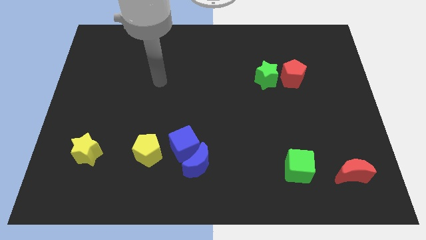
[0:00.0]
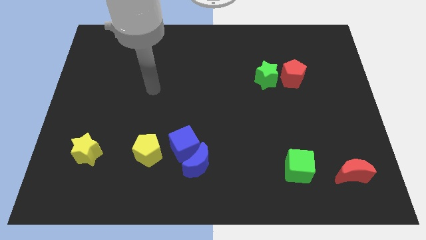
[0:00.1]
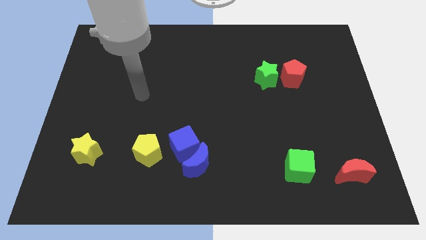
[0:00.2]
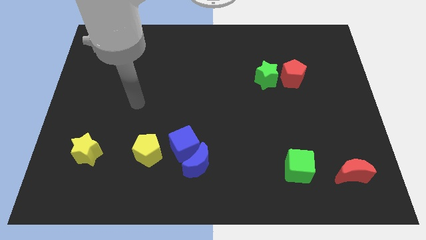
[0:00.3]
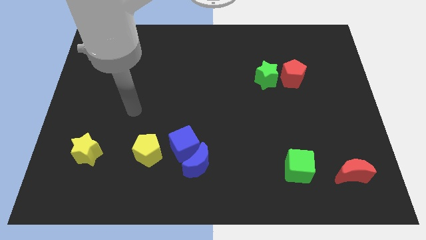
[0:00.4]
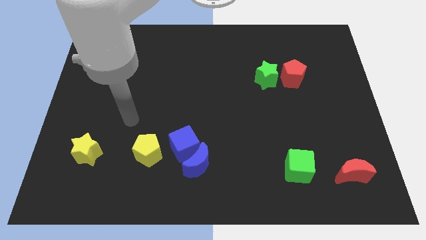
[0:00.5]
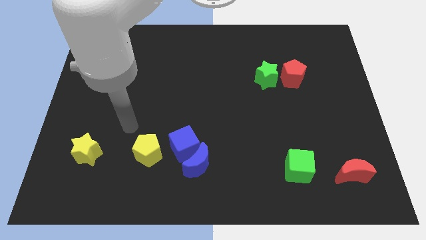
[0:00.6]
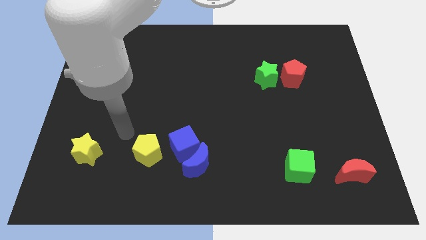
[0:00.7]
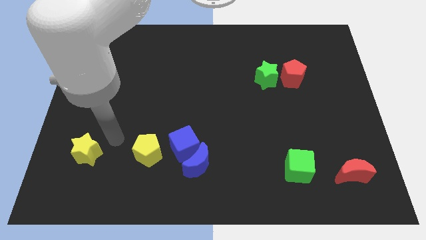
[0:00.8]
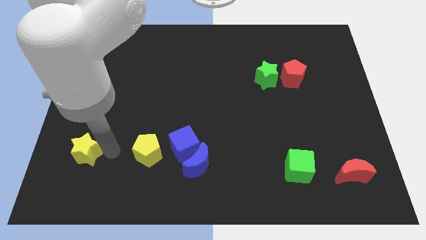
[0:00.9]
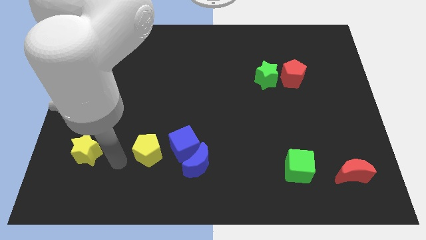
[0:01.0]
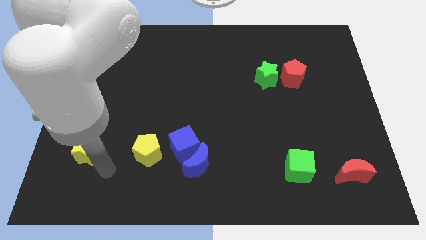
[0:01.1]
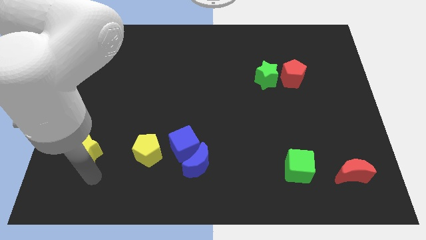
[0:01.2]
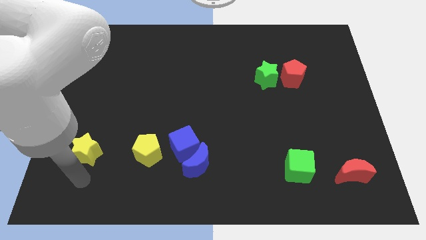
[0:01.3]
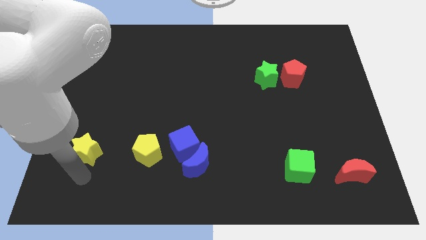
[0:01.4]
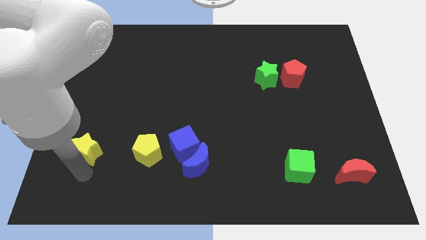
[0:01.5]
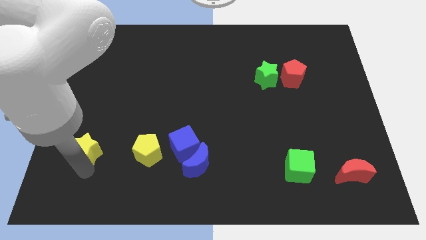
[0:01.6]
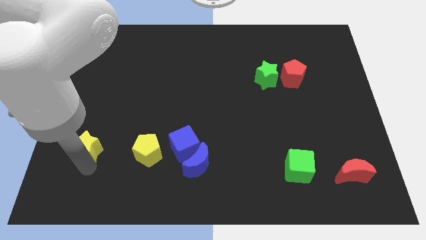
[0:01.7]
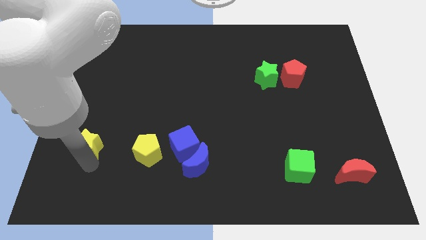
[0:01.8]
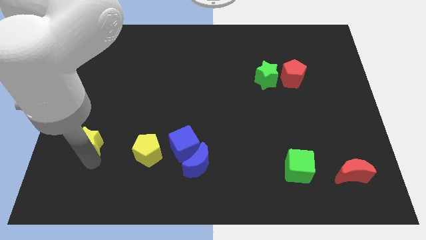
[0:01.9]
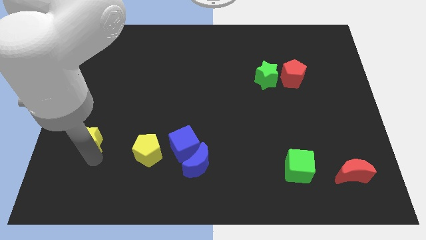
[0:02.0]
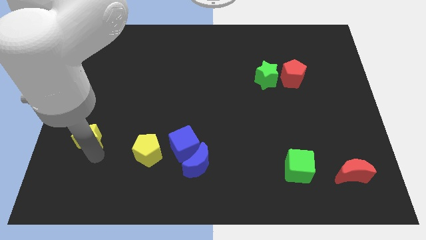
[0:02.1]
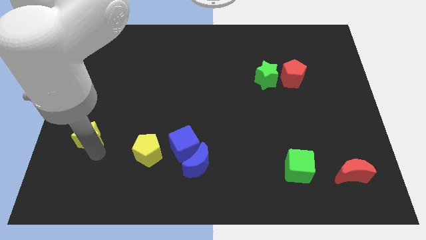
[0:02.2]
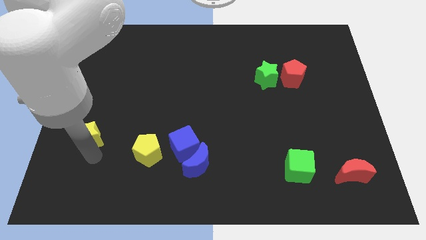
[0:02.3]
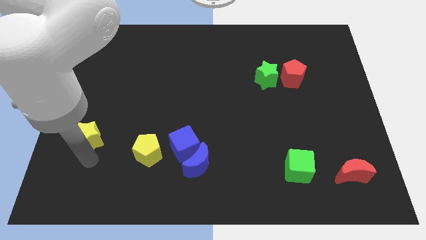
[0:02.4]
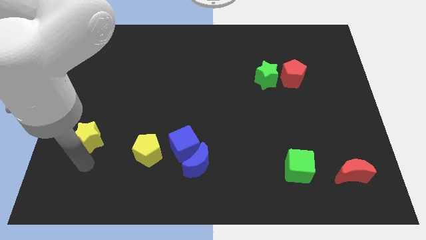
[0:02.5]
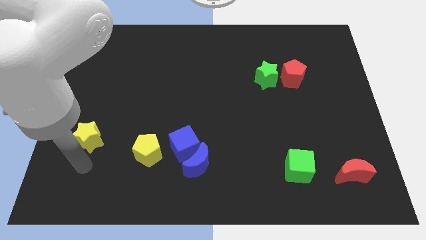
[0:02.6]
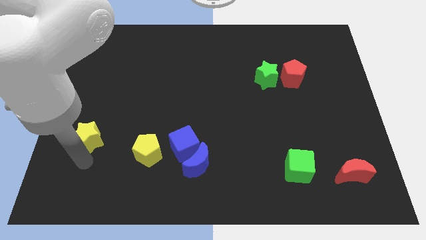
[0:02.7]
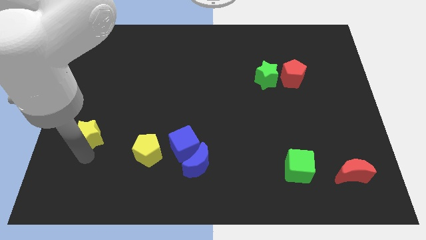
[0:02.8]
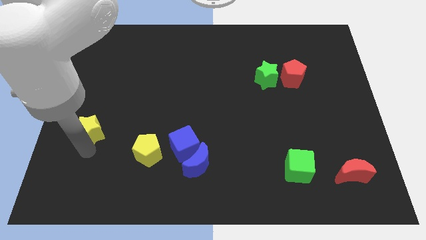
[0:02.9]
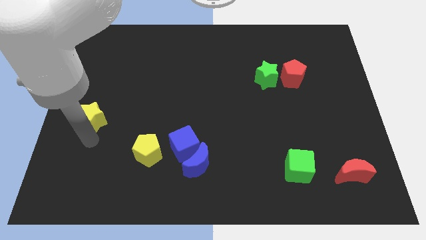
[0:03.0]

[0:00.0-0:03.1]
move the yellow star a little bit up

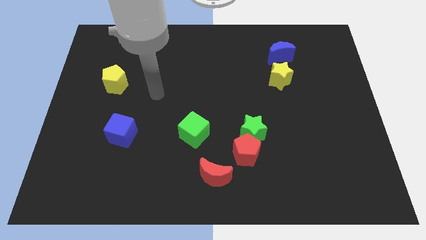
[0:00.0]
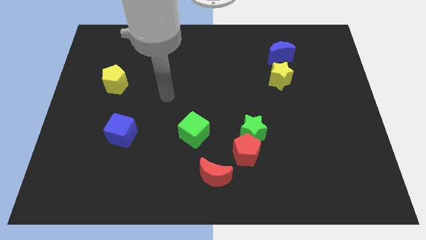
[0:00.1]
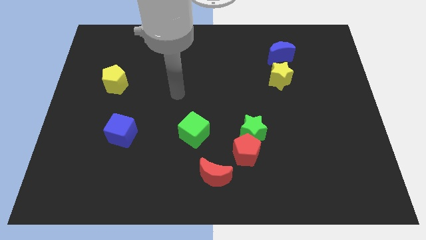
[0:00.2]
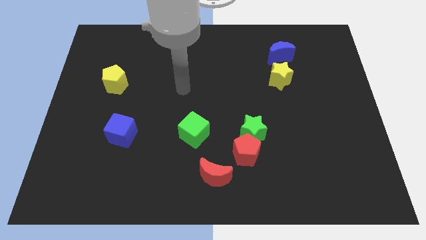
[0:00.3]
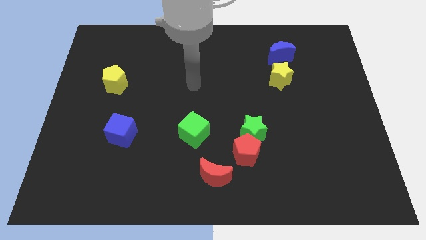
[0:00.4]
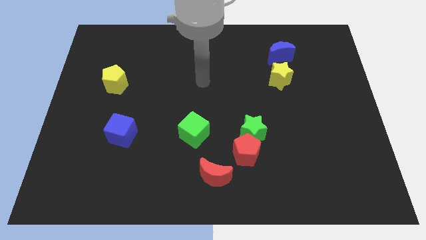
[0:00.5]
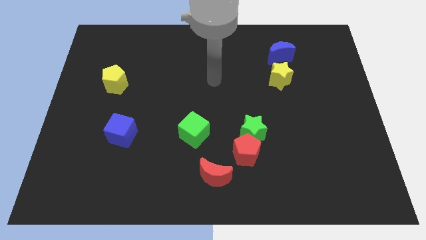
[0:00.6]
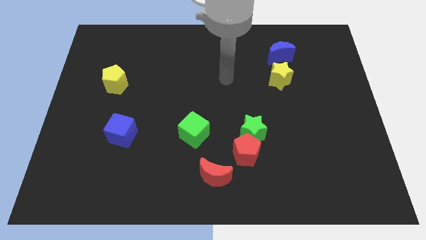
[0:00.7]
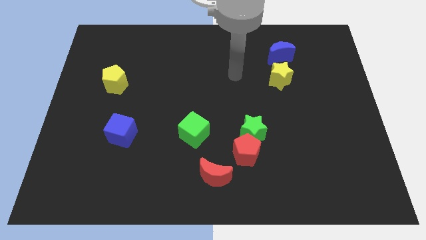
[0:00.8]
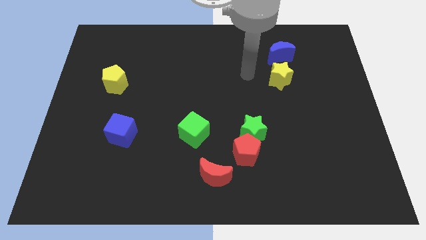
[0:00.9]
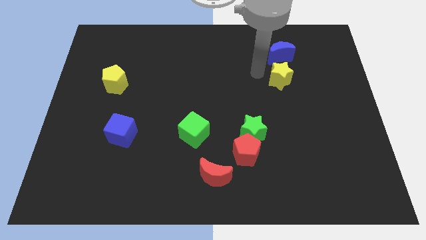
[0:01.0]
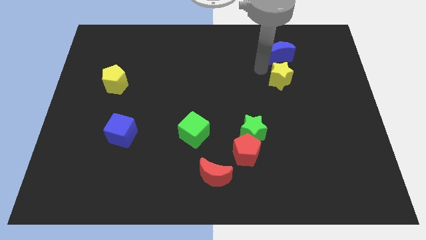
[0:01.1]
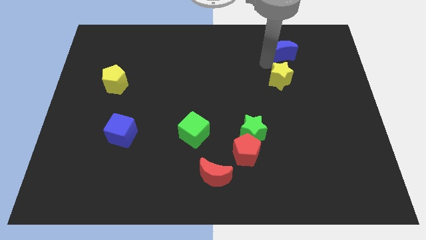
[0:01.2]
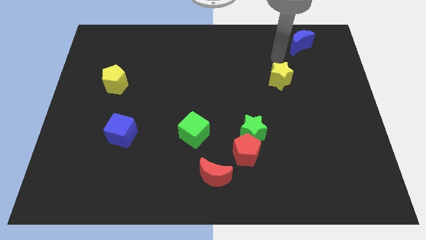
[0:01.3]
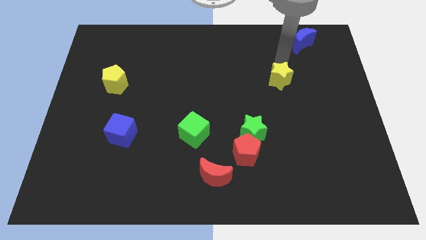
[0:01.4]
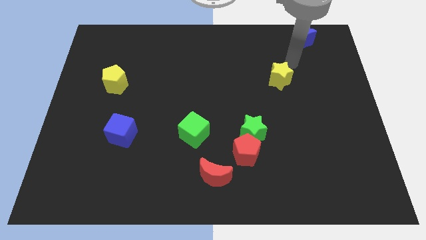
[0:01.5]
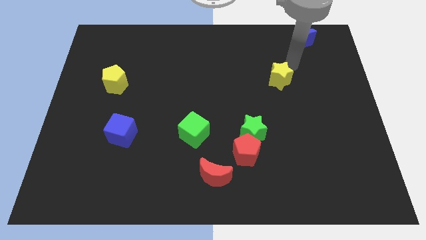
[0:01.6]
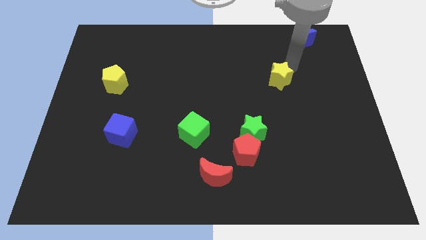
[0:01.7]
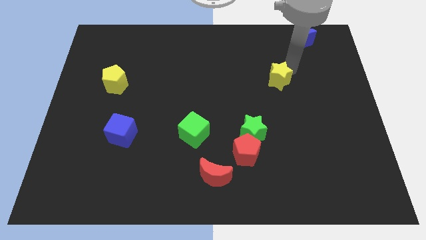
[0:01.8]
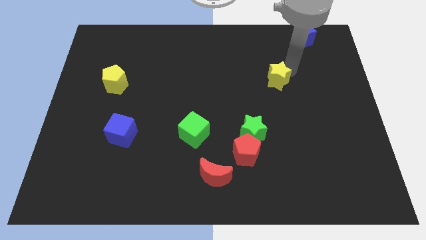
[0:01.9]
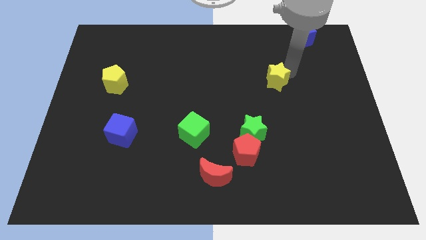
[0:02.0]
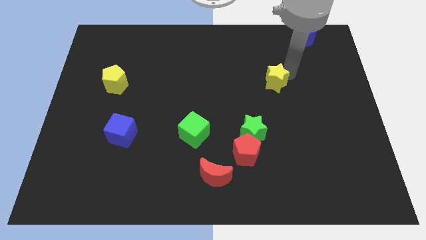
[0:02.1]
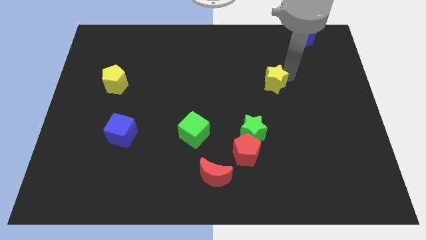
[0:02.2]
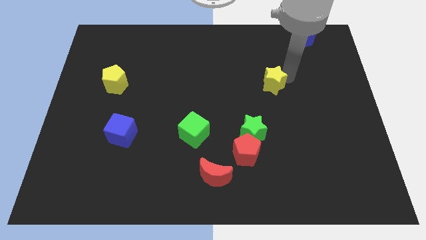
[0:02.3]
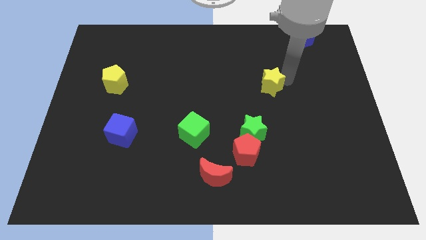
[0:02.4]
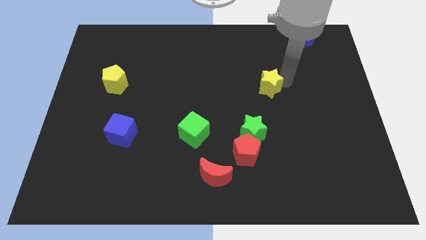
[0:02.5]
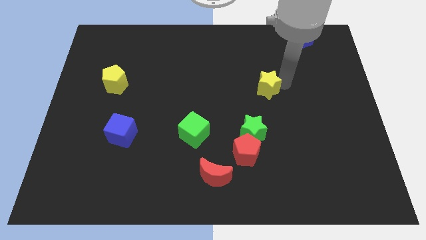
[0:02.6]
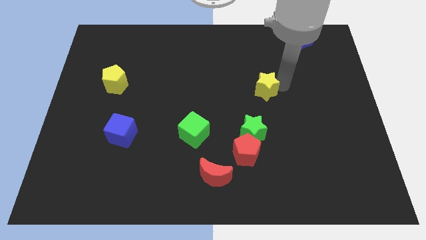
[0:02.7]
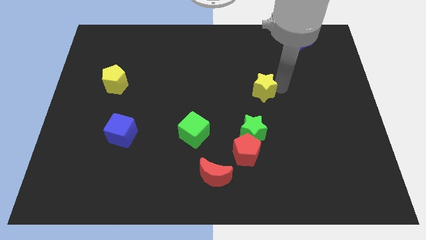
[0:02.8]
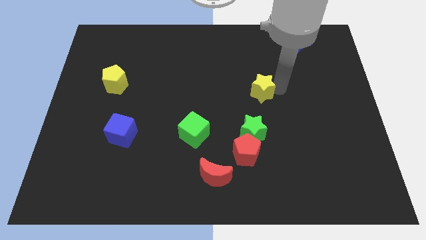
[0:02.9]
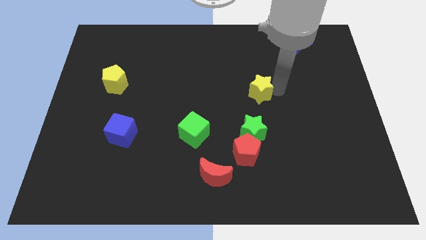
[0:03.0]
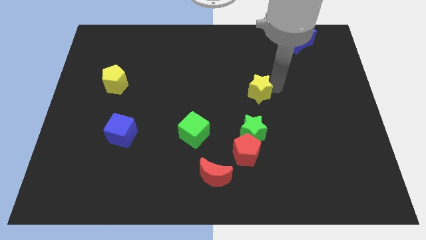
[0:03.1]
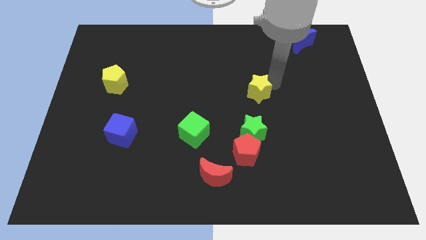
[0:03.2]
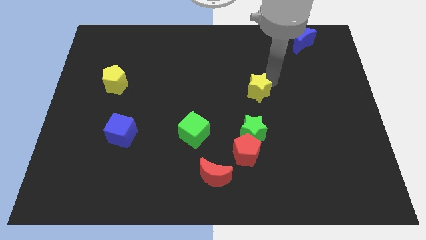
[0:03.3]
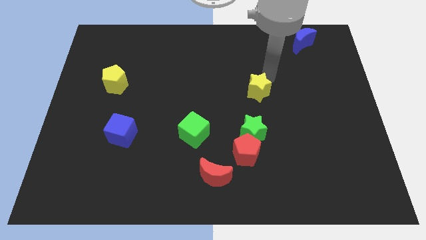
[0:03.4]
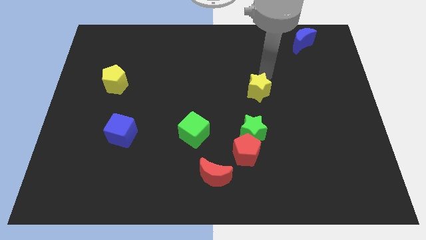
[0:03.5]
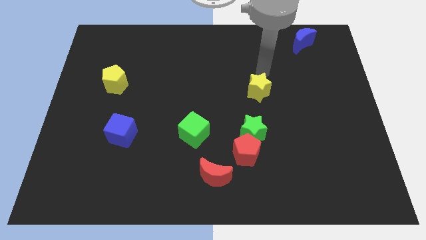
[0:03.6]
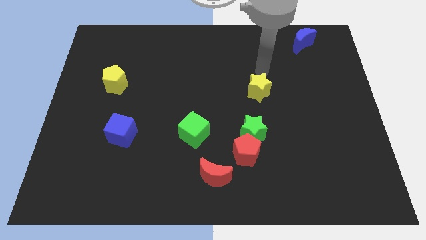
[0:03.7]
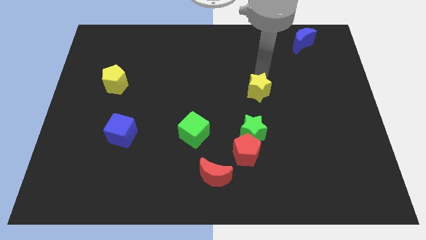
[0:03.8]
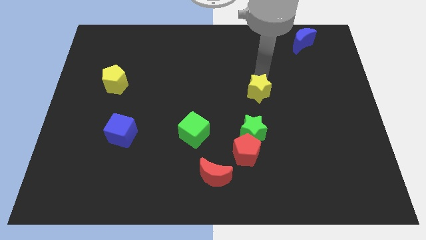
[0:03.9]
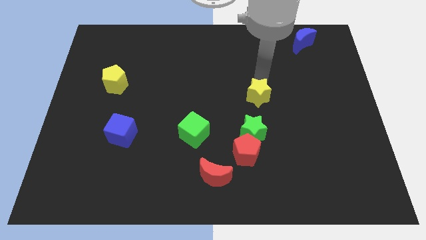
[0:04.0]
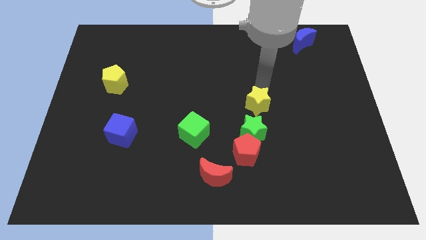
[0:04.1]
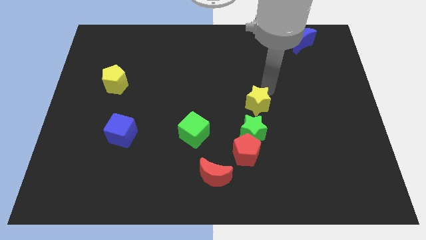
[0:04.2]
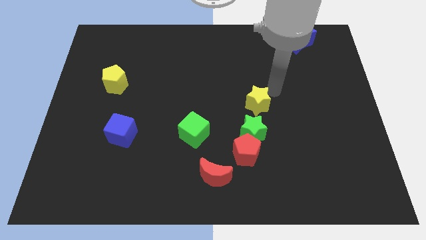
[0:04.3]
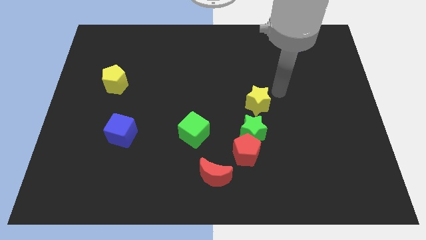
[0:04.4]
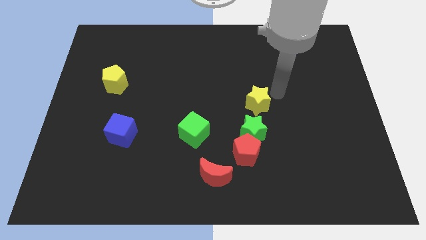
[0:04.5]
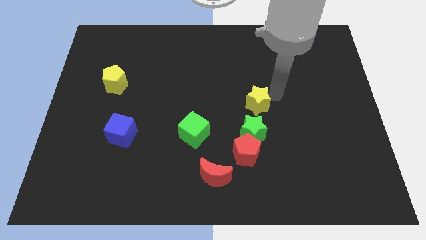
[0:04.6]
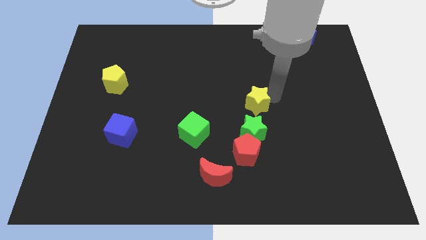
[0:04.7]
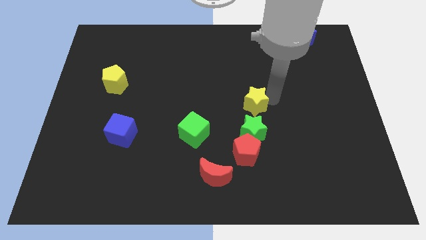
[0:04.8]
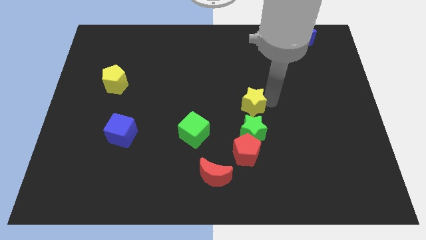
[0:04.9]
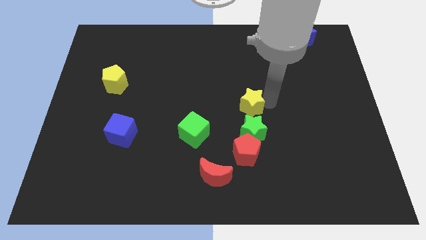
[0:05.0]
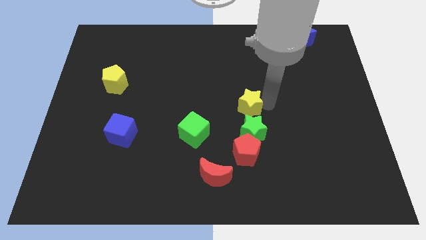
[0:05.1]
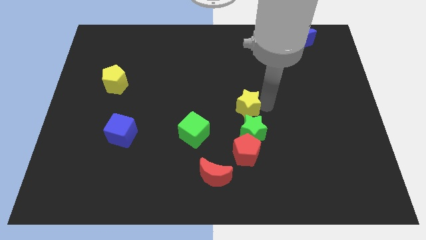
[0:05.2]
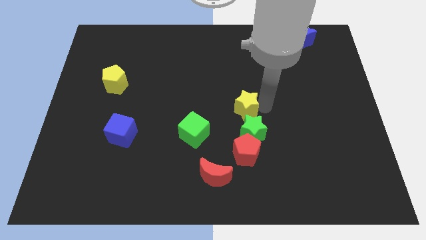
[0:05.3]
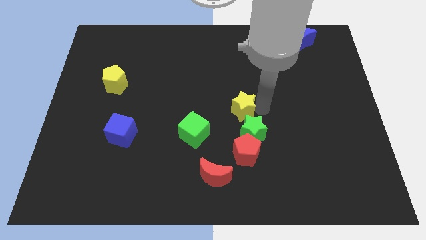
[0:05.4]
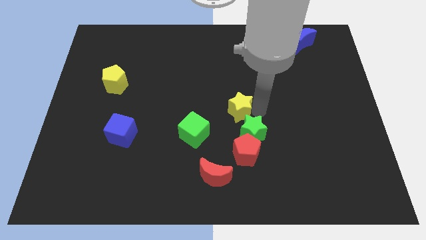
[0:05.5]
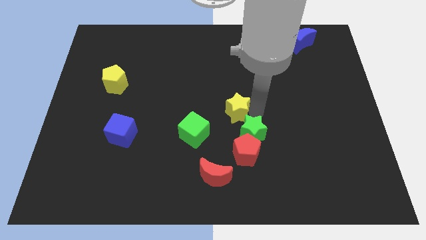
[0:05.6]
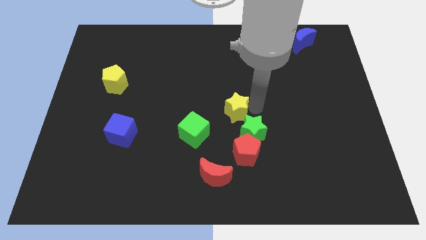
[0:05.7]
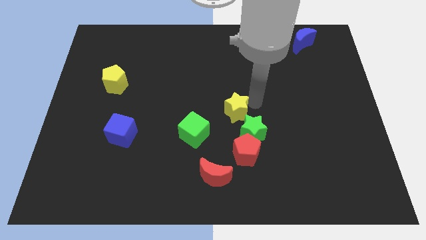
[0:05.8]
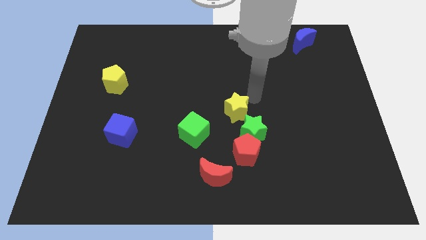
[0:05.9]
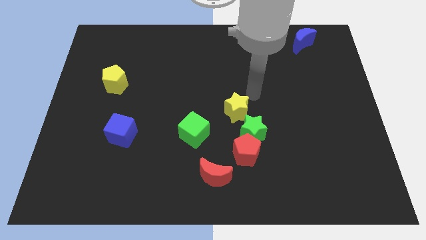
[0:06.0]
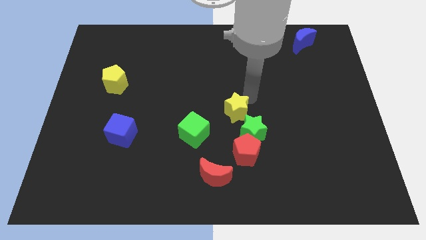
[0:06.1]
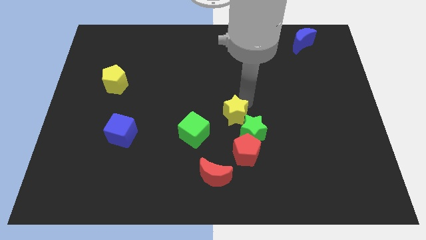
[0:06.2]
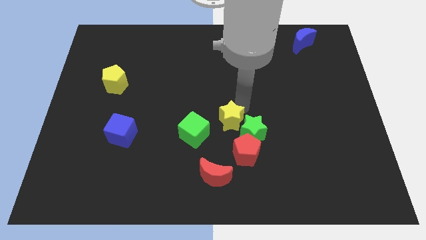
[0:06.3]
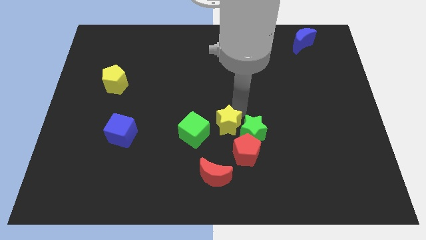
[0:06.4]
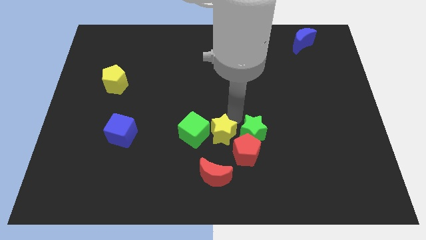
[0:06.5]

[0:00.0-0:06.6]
move the yellow star down and to the left
